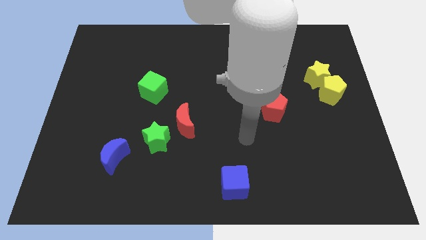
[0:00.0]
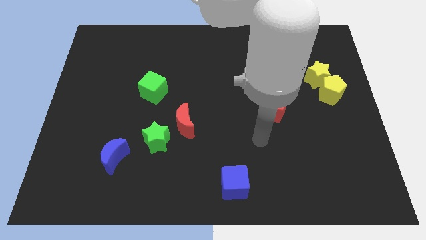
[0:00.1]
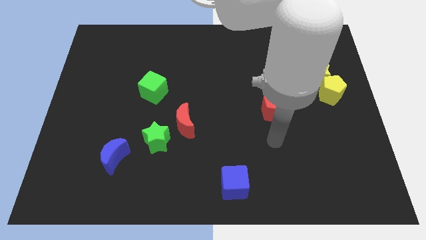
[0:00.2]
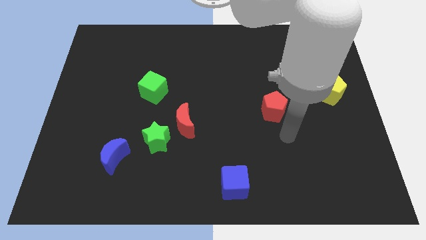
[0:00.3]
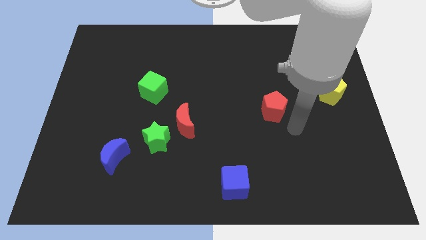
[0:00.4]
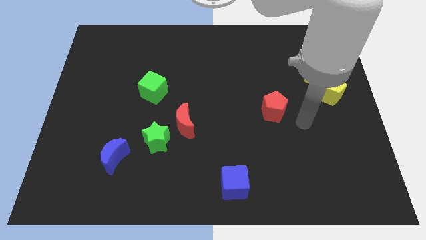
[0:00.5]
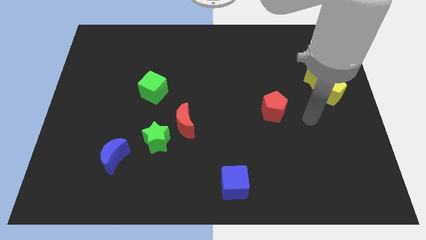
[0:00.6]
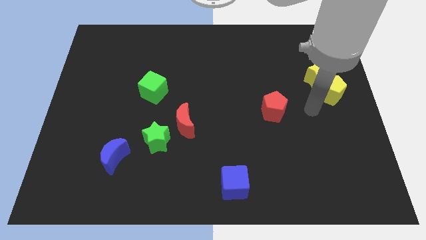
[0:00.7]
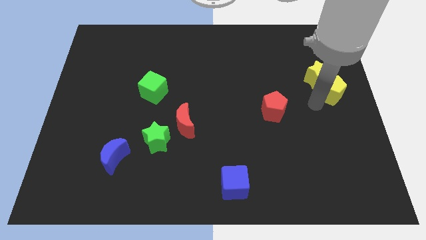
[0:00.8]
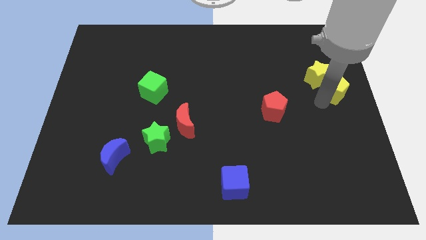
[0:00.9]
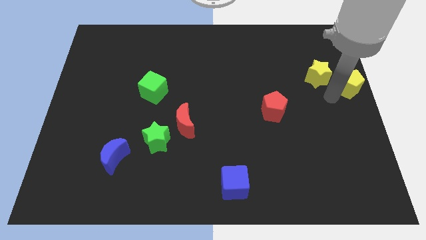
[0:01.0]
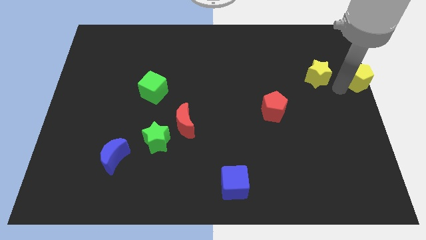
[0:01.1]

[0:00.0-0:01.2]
separate the yellow star from the yellow pentagon

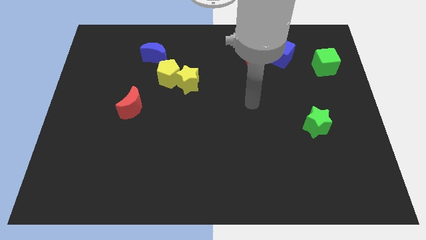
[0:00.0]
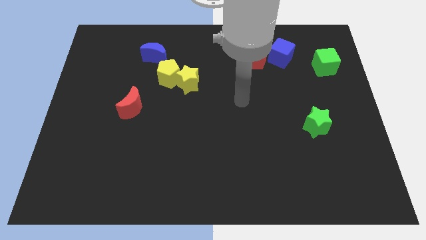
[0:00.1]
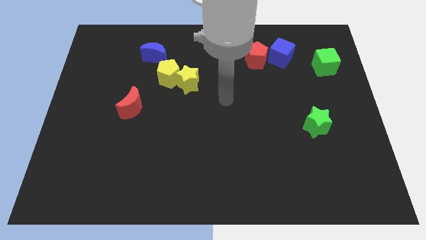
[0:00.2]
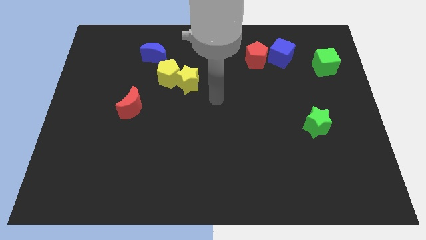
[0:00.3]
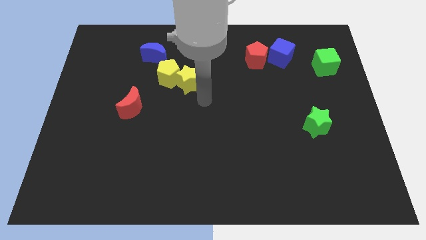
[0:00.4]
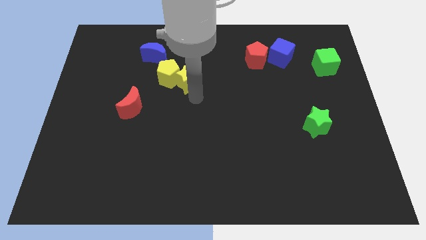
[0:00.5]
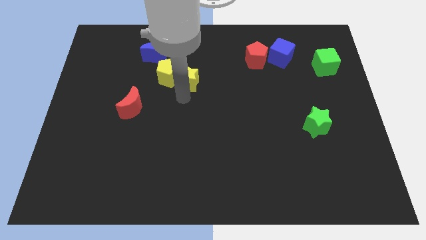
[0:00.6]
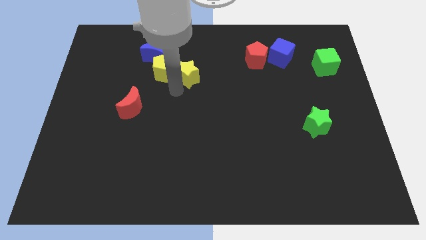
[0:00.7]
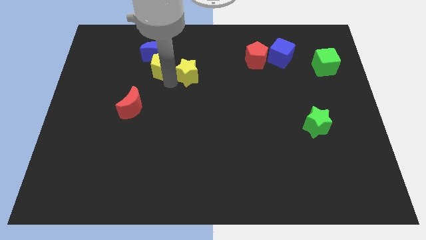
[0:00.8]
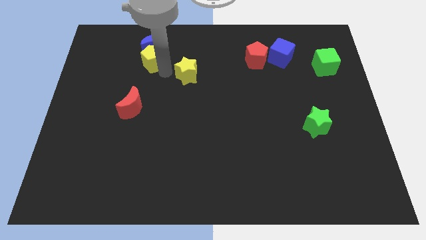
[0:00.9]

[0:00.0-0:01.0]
move the yellow star away from the yellow pentagon

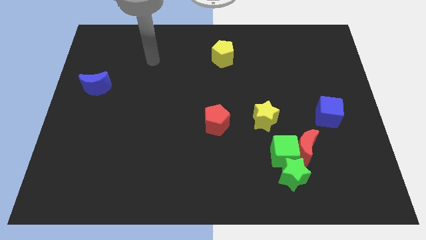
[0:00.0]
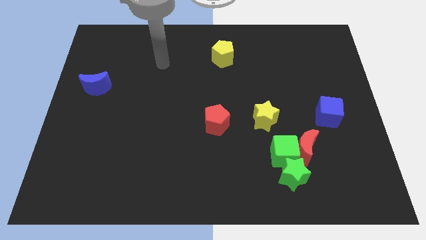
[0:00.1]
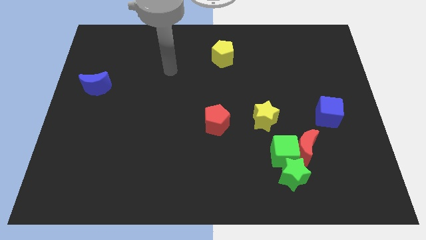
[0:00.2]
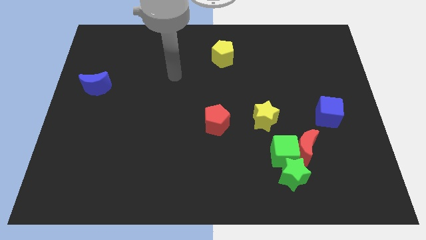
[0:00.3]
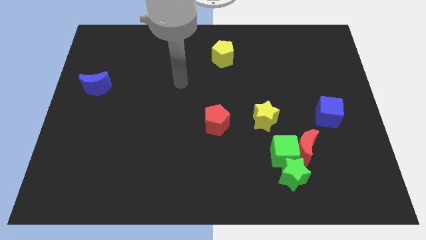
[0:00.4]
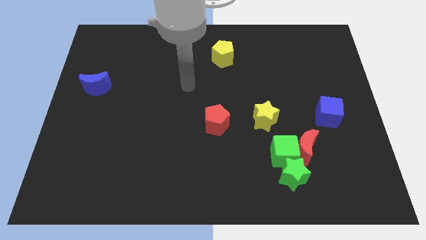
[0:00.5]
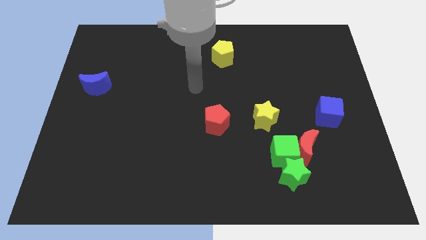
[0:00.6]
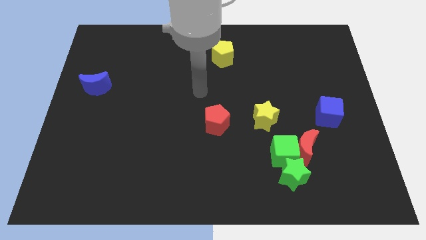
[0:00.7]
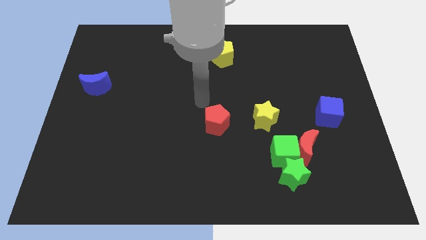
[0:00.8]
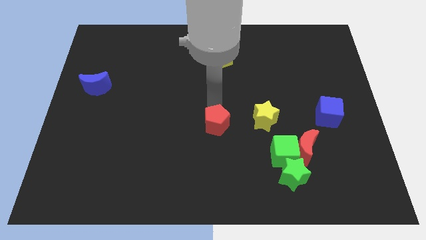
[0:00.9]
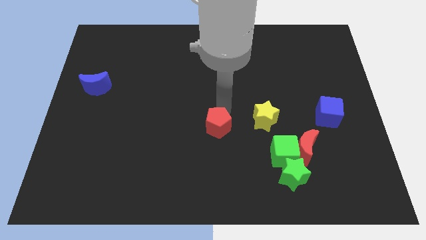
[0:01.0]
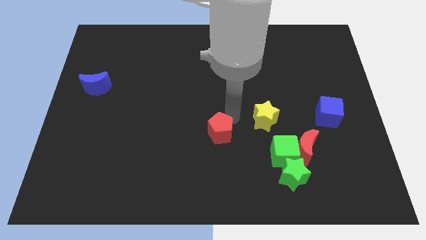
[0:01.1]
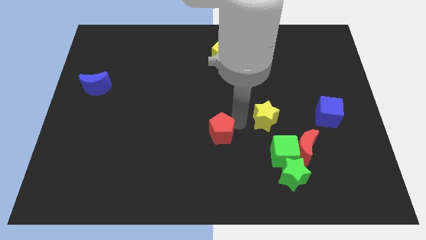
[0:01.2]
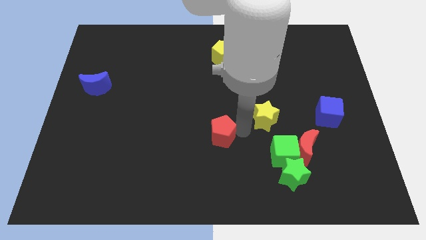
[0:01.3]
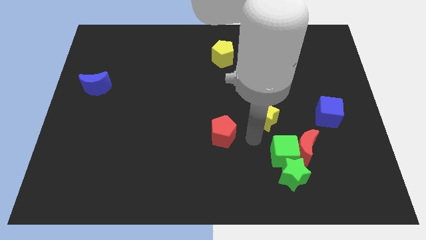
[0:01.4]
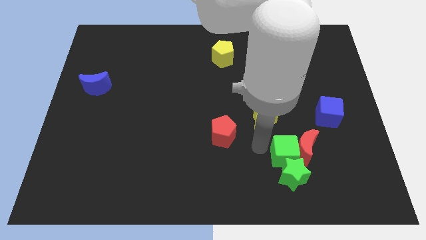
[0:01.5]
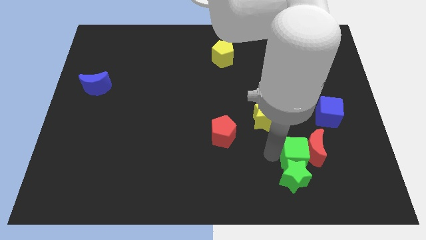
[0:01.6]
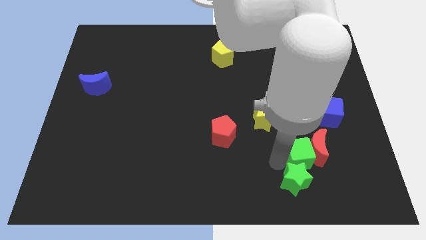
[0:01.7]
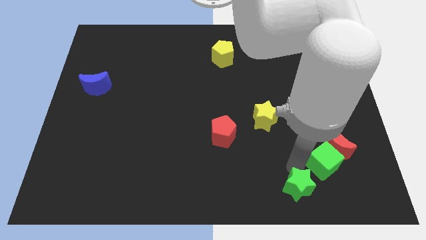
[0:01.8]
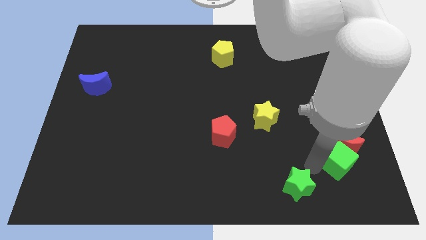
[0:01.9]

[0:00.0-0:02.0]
separate the red moon from the green cube and green star

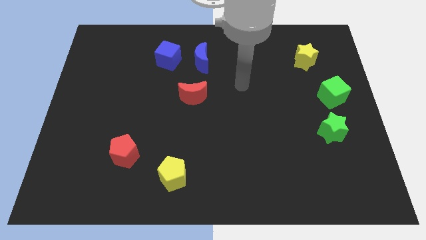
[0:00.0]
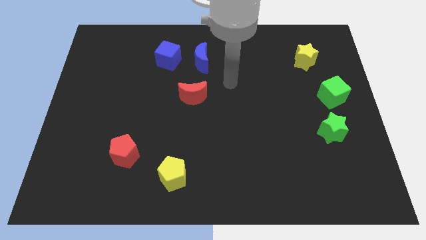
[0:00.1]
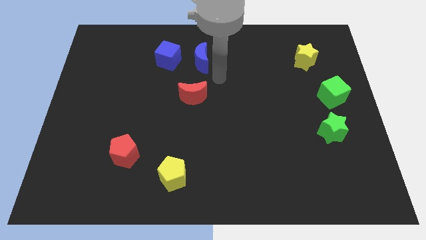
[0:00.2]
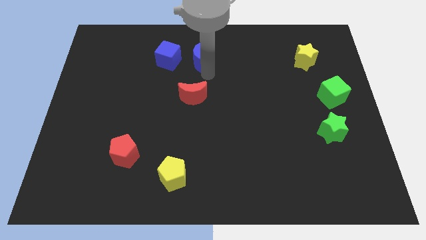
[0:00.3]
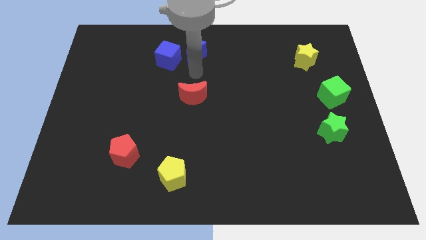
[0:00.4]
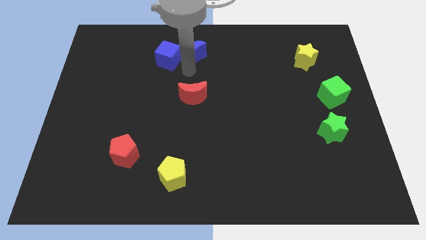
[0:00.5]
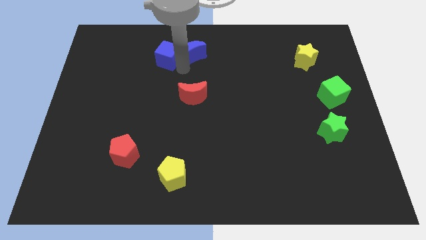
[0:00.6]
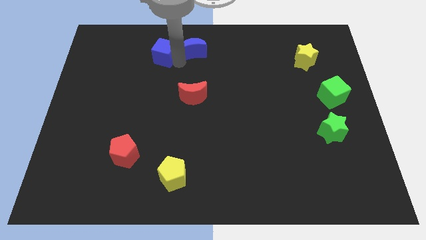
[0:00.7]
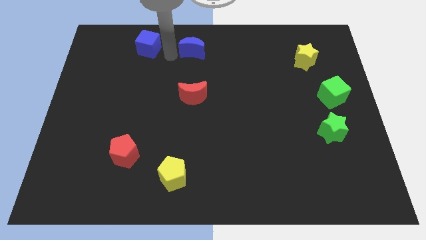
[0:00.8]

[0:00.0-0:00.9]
move the blue moon away from the blue cube

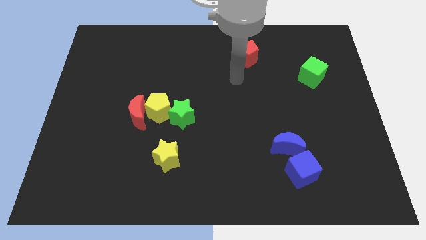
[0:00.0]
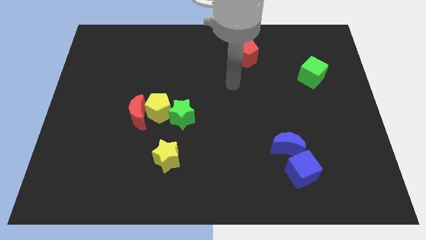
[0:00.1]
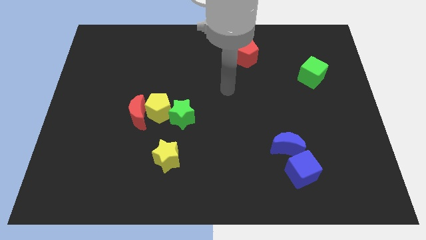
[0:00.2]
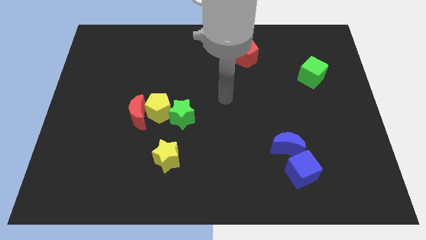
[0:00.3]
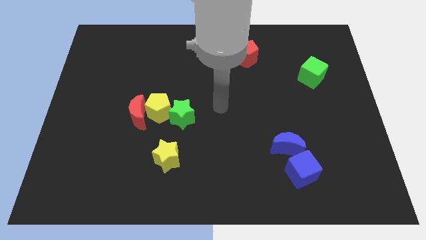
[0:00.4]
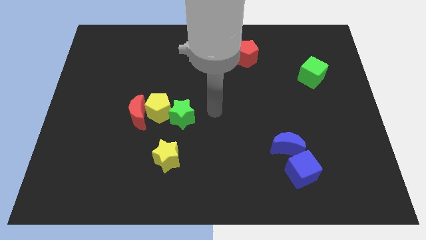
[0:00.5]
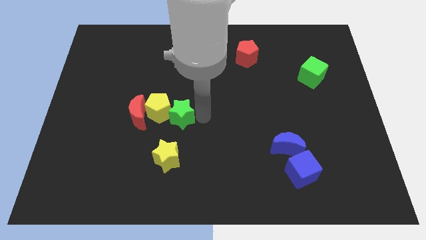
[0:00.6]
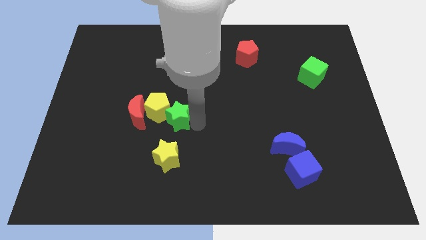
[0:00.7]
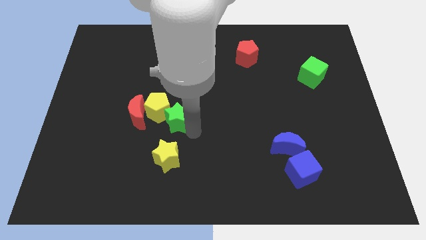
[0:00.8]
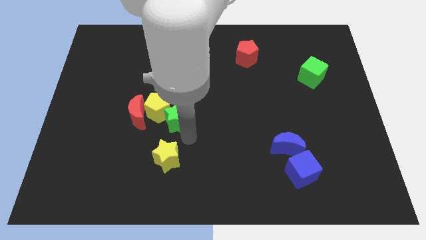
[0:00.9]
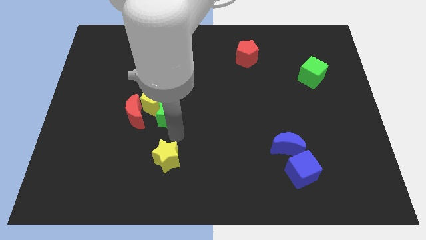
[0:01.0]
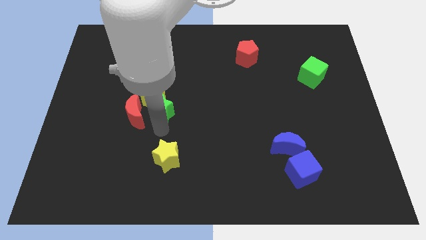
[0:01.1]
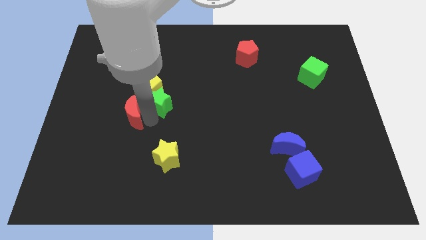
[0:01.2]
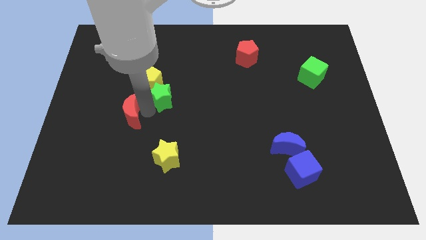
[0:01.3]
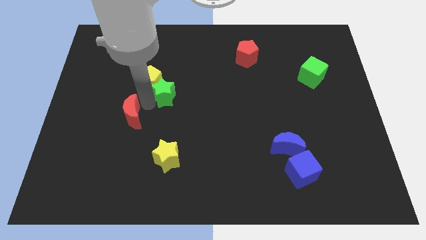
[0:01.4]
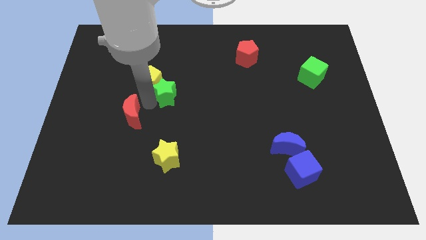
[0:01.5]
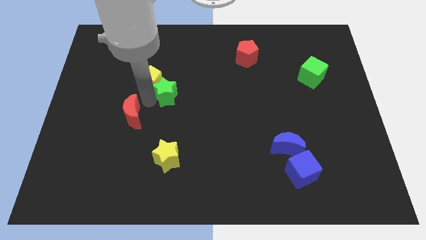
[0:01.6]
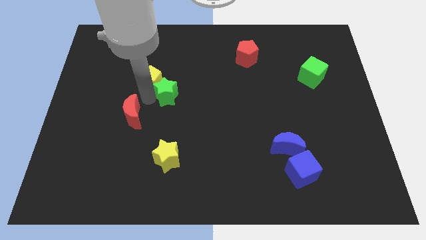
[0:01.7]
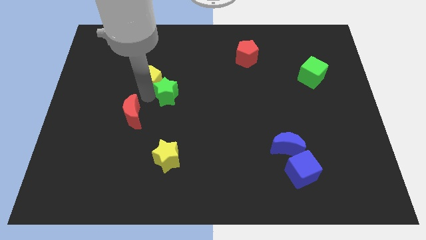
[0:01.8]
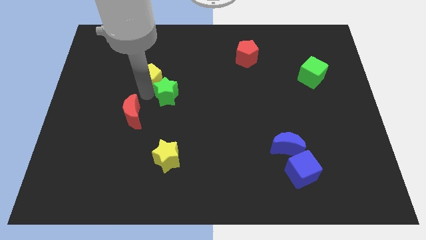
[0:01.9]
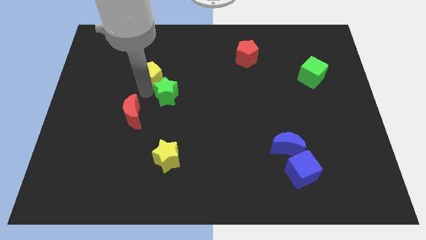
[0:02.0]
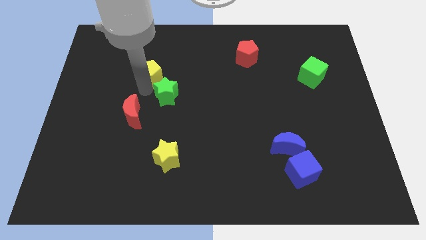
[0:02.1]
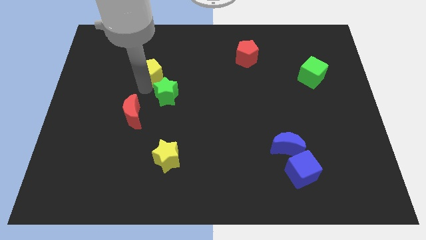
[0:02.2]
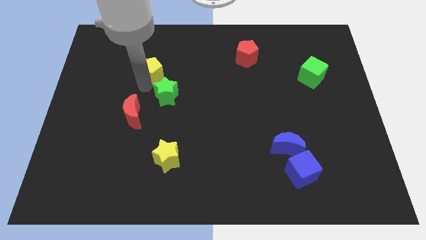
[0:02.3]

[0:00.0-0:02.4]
move the yellow pentagon away from the red moon and green star

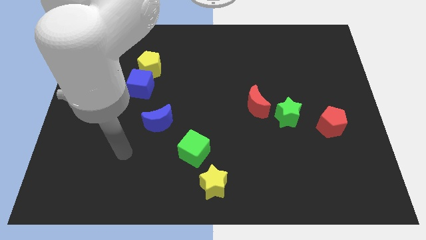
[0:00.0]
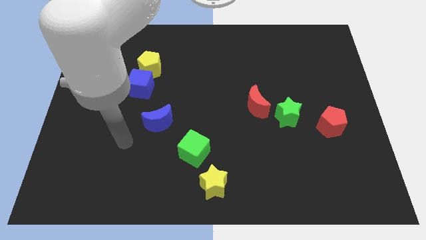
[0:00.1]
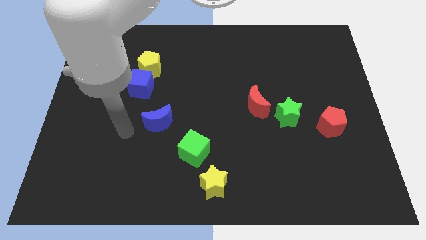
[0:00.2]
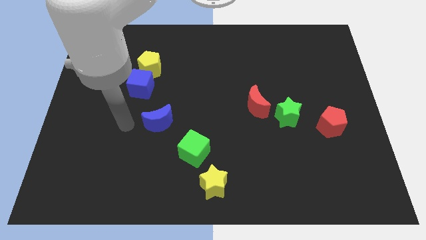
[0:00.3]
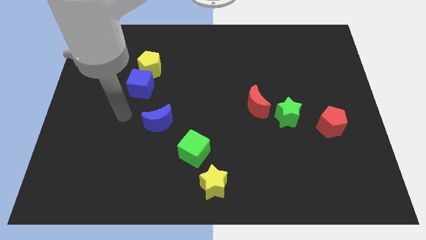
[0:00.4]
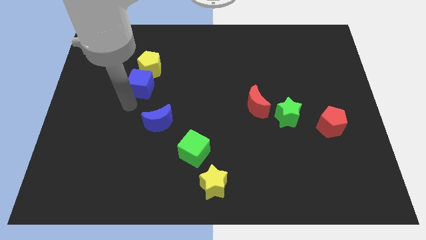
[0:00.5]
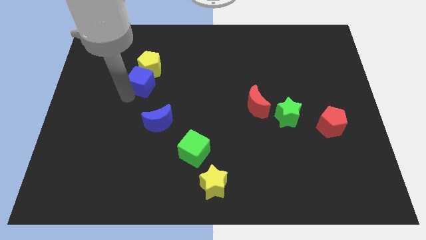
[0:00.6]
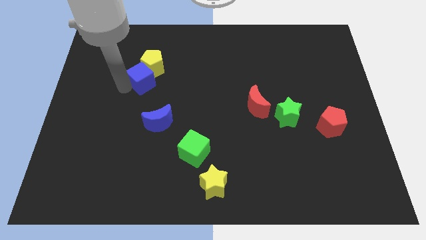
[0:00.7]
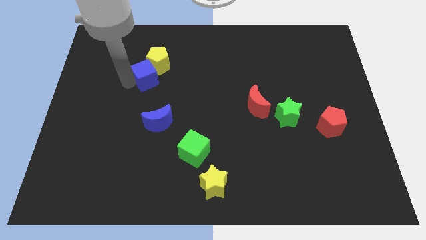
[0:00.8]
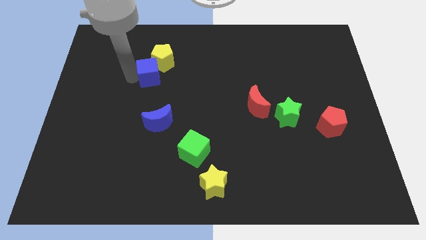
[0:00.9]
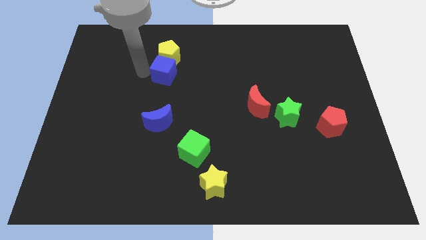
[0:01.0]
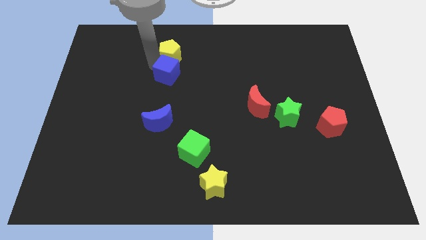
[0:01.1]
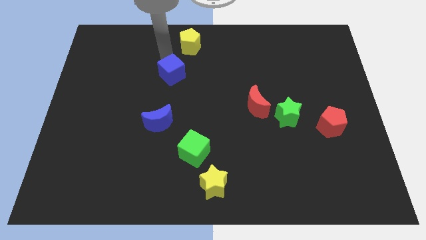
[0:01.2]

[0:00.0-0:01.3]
pull the blue cube apart from the yellow pentagon

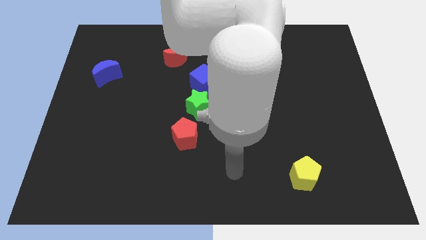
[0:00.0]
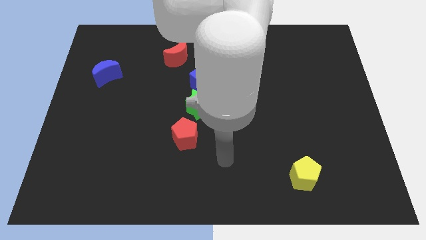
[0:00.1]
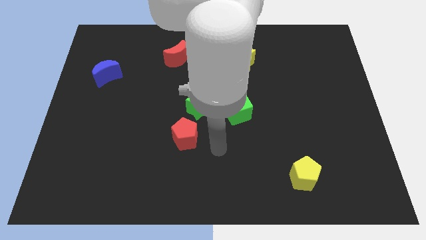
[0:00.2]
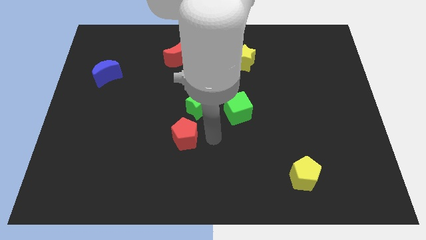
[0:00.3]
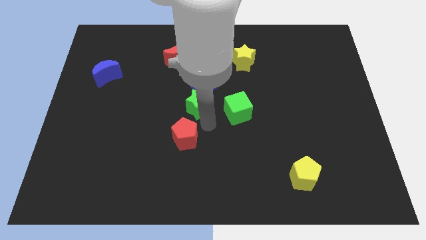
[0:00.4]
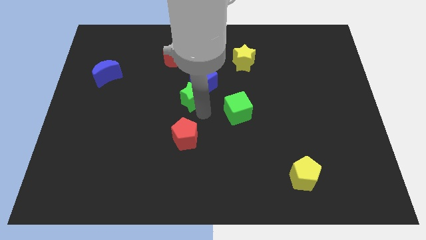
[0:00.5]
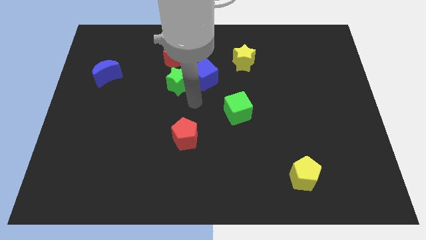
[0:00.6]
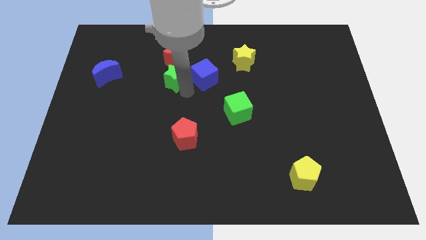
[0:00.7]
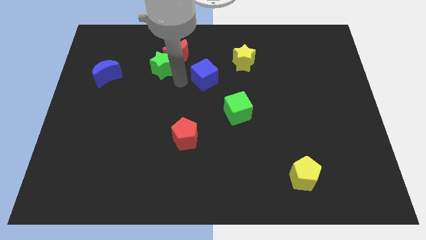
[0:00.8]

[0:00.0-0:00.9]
pull the blue cube apart from the green star
